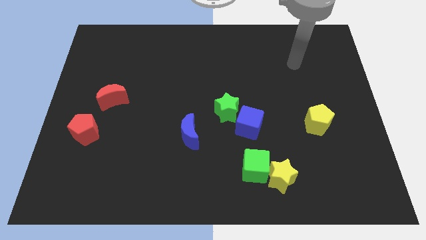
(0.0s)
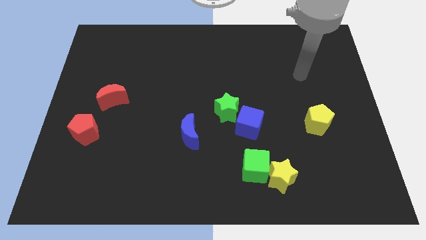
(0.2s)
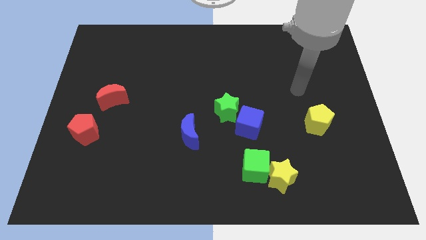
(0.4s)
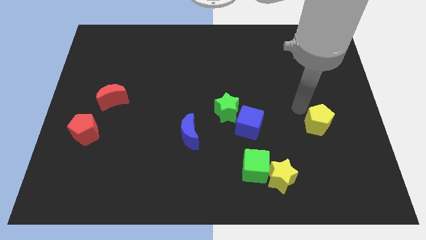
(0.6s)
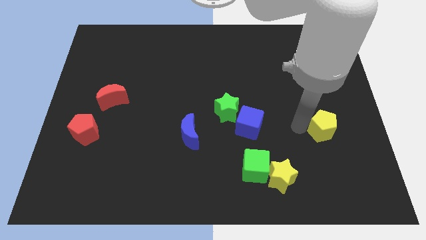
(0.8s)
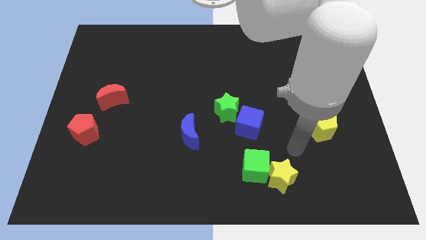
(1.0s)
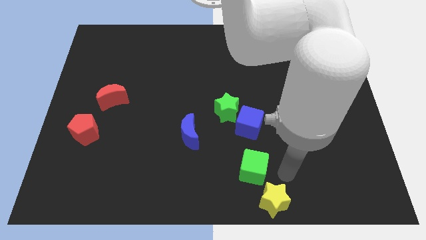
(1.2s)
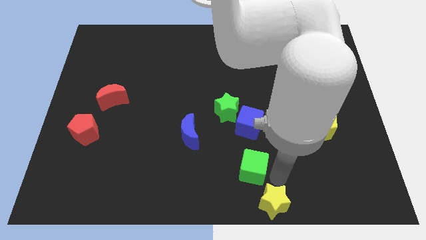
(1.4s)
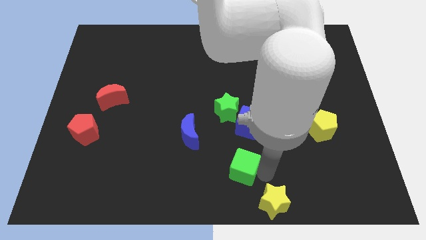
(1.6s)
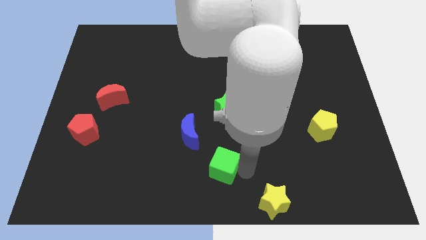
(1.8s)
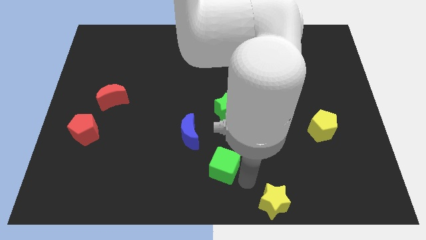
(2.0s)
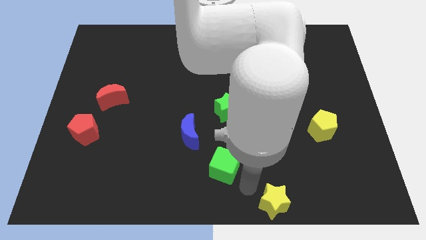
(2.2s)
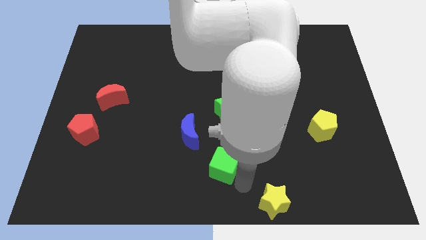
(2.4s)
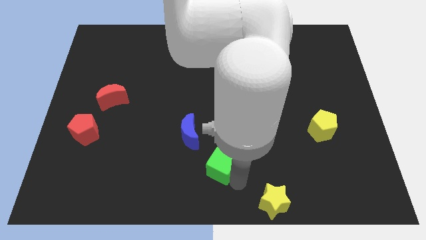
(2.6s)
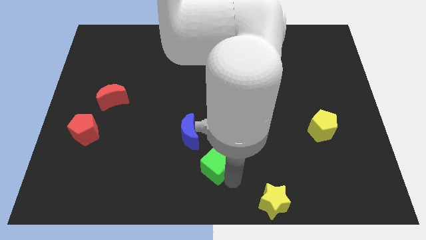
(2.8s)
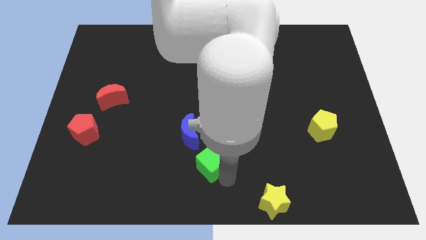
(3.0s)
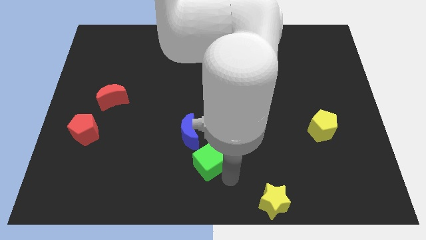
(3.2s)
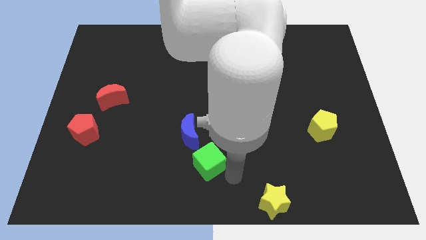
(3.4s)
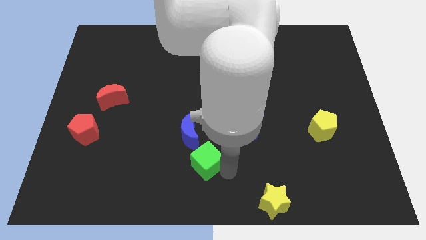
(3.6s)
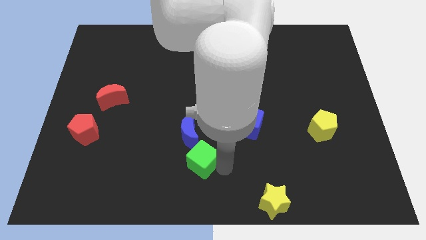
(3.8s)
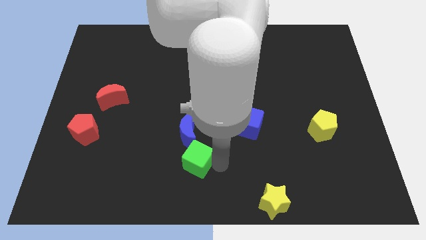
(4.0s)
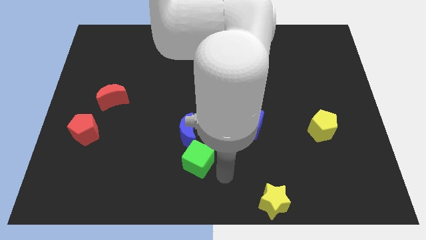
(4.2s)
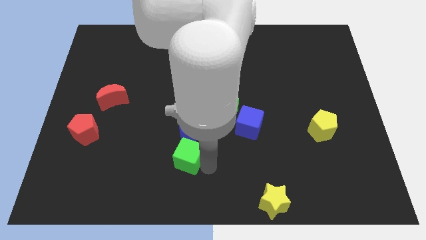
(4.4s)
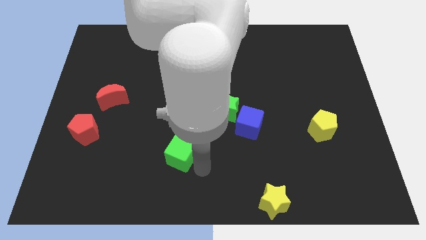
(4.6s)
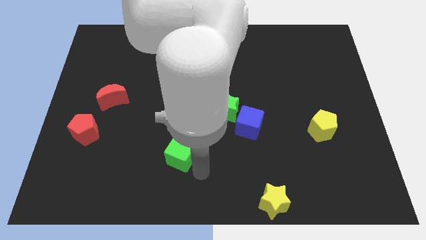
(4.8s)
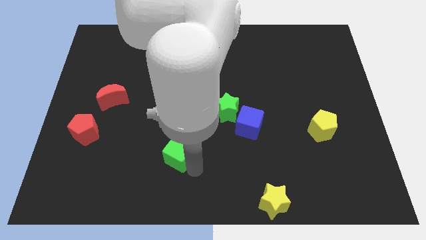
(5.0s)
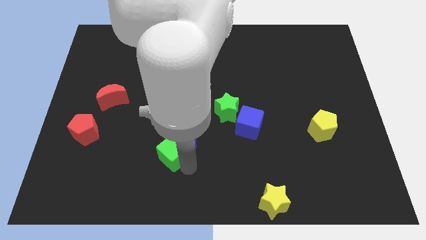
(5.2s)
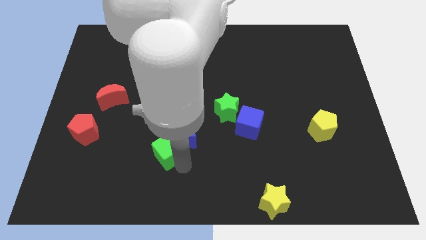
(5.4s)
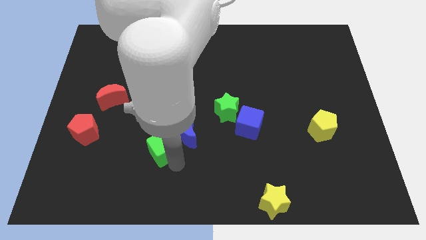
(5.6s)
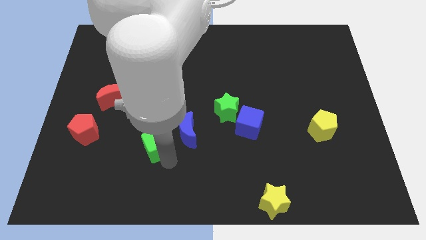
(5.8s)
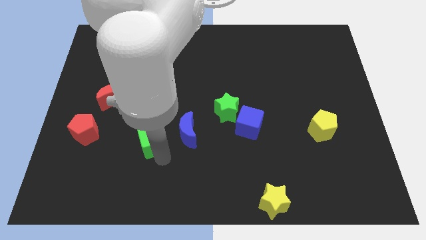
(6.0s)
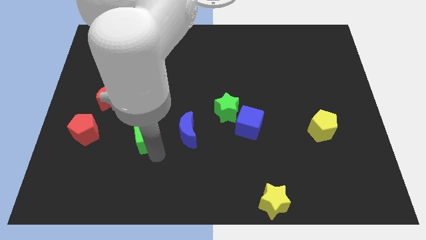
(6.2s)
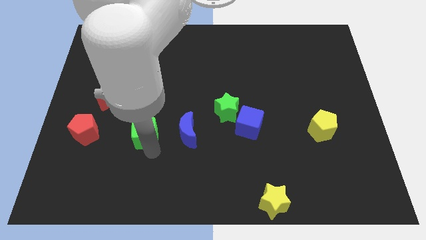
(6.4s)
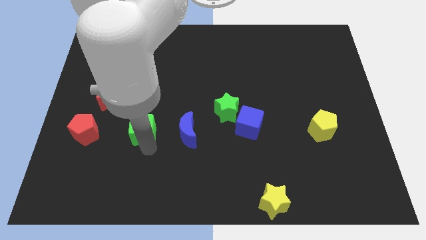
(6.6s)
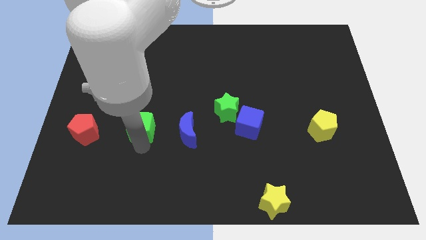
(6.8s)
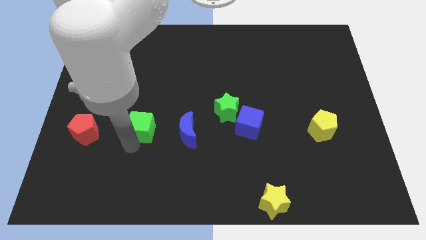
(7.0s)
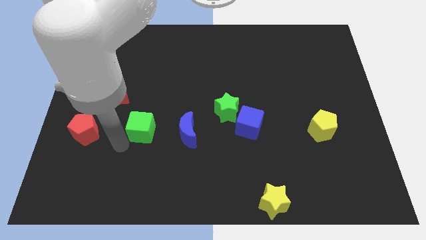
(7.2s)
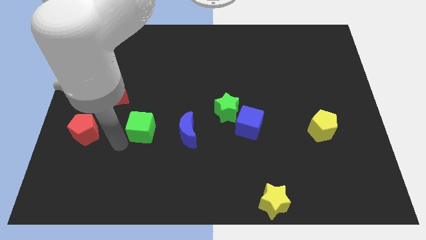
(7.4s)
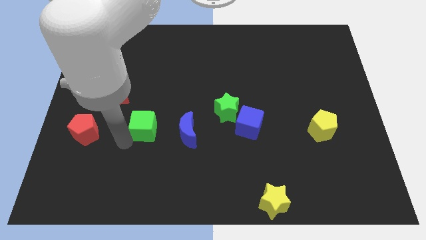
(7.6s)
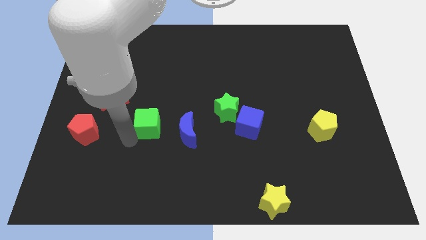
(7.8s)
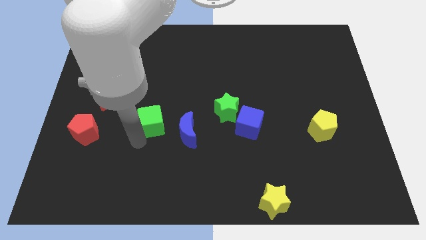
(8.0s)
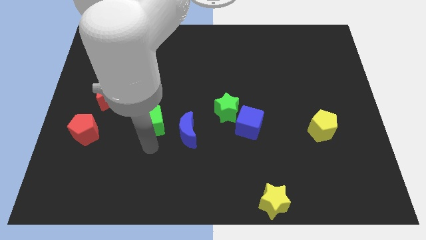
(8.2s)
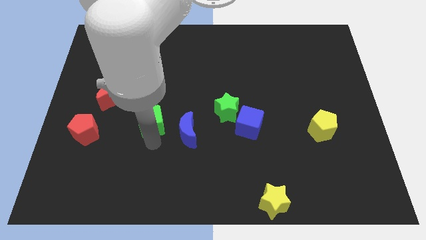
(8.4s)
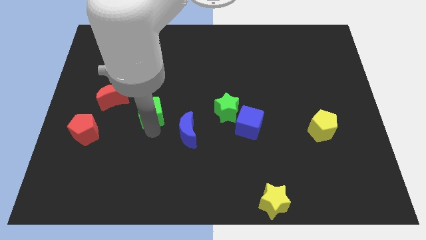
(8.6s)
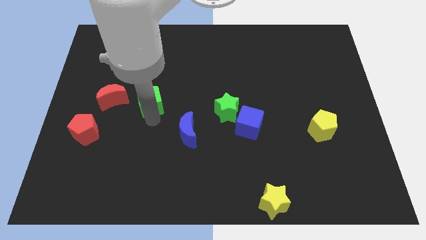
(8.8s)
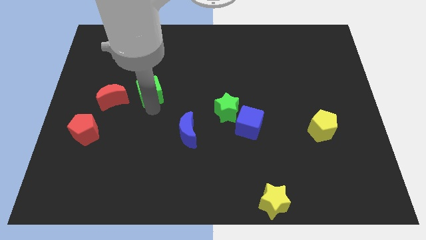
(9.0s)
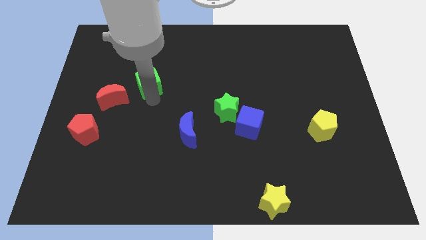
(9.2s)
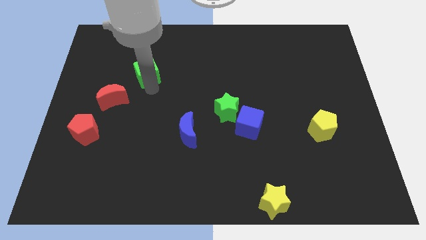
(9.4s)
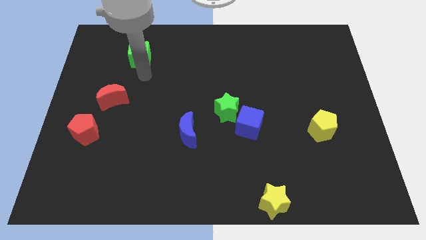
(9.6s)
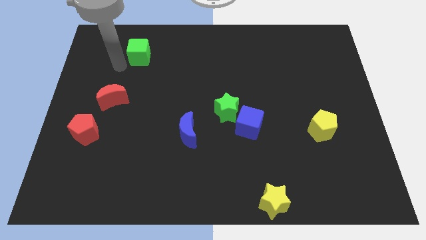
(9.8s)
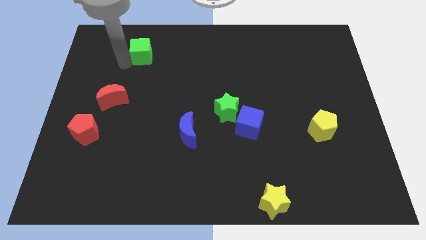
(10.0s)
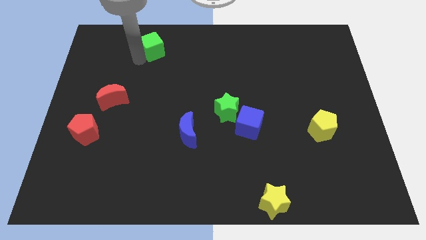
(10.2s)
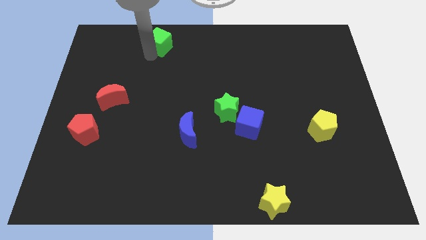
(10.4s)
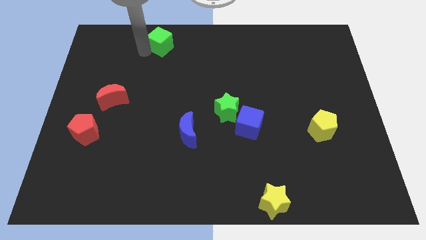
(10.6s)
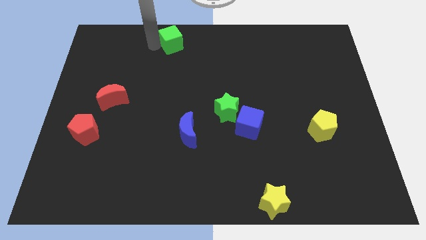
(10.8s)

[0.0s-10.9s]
move the green cube to the towards your base

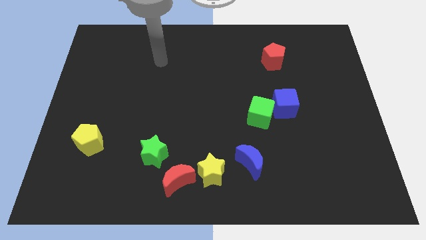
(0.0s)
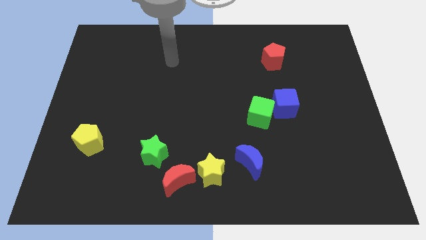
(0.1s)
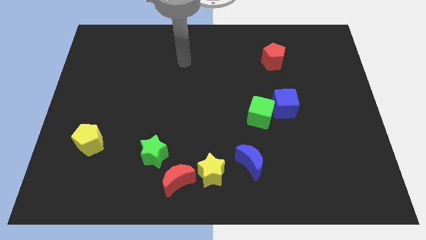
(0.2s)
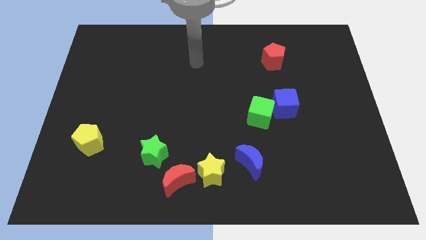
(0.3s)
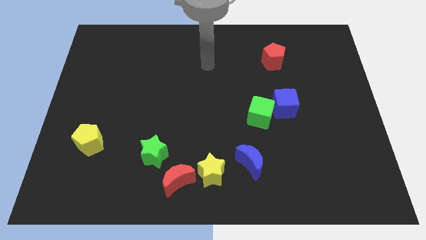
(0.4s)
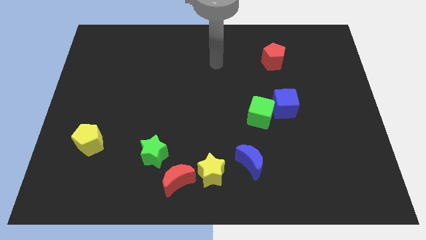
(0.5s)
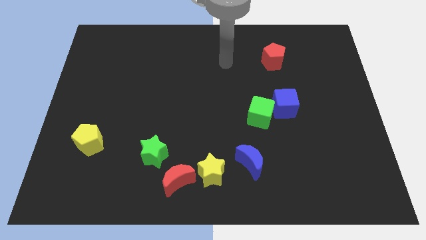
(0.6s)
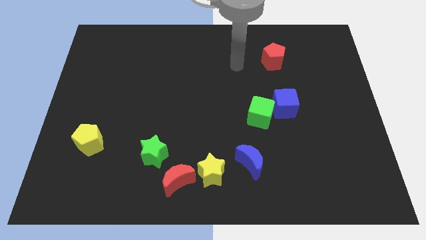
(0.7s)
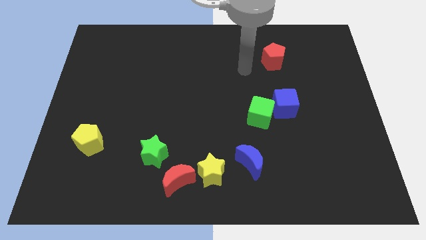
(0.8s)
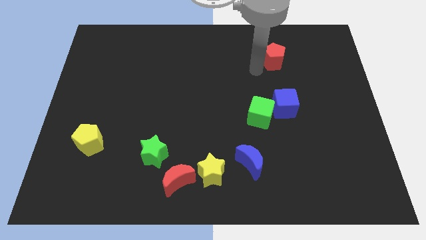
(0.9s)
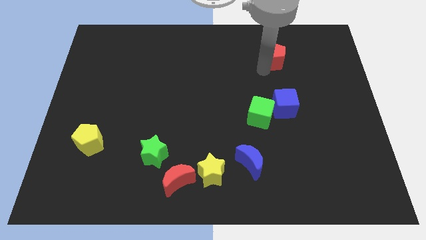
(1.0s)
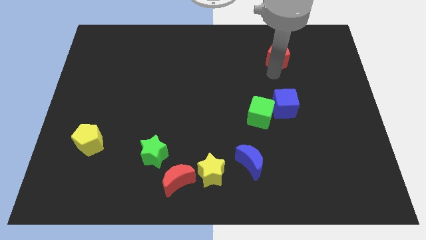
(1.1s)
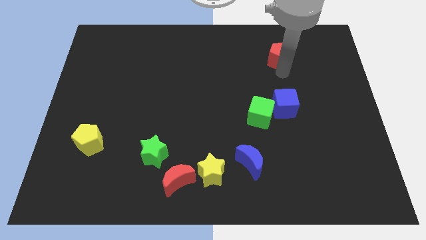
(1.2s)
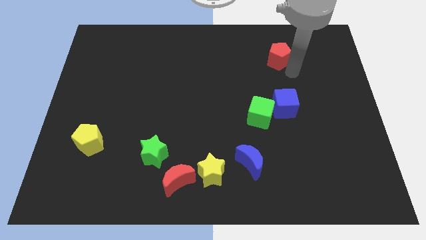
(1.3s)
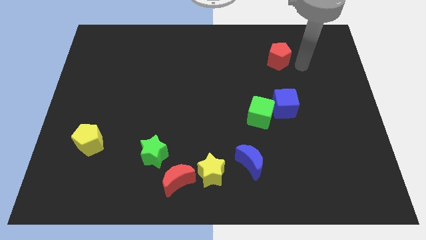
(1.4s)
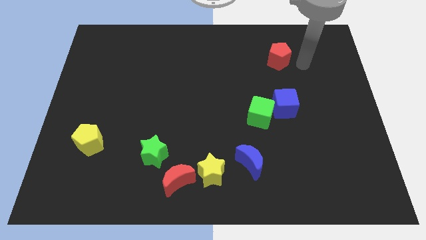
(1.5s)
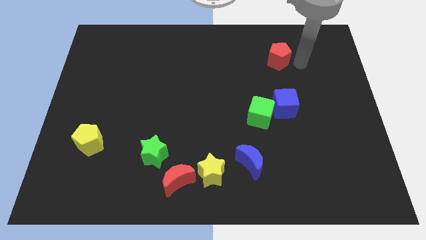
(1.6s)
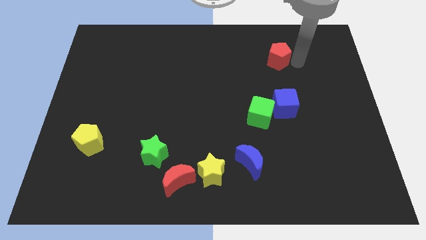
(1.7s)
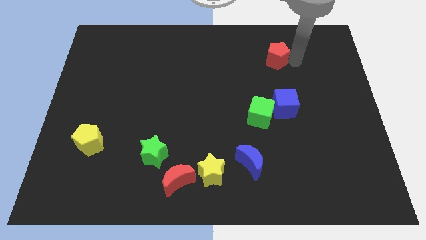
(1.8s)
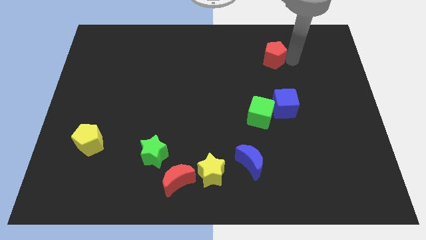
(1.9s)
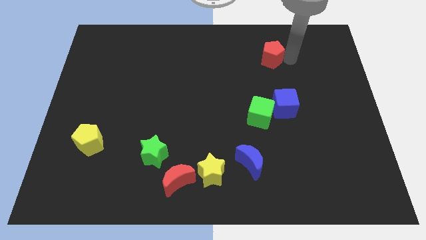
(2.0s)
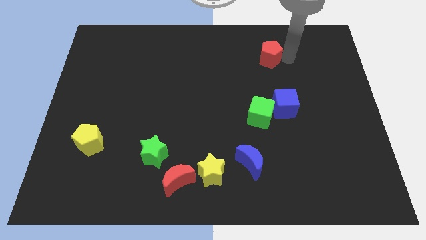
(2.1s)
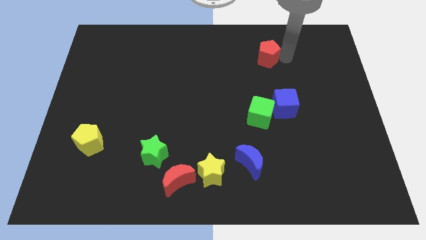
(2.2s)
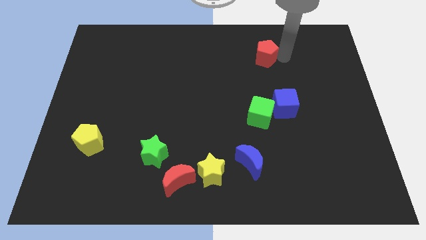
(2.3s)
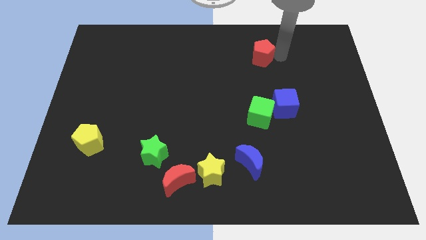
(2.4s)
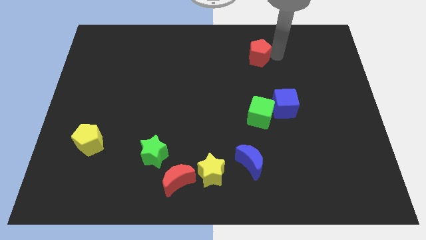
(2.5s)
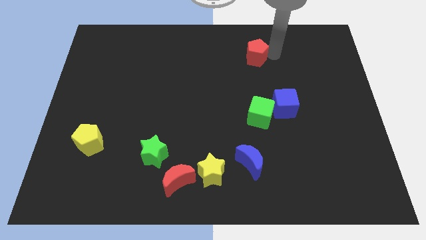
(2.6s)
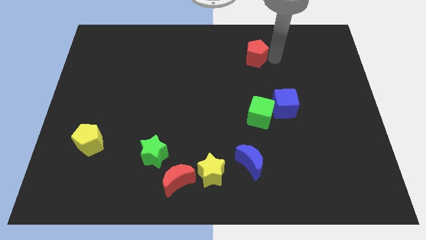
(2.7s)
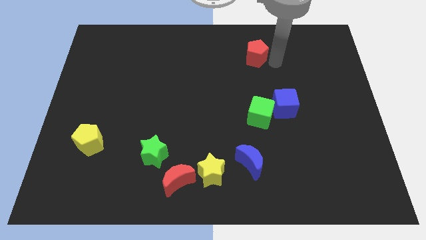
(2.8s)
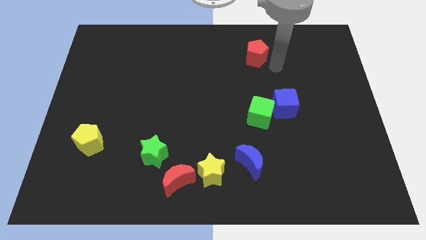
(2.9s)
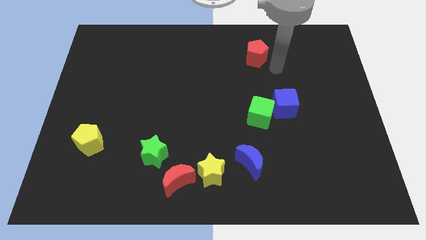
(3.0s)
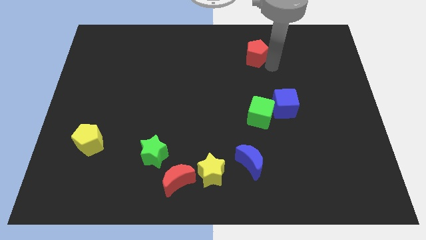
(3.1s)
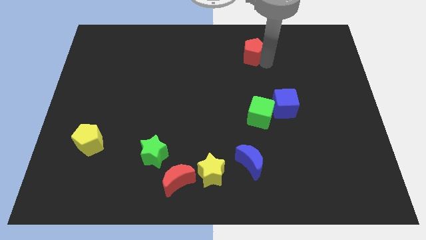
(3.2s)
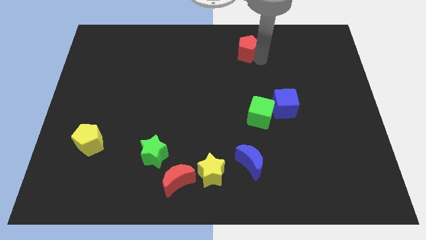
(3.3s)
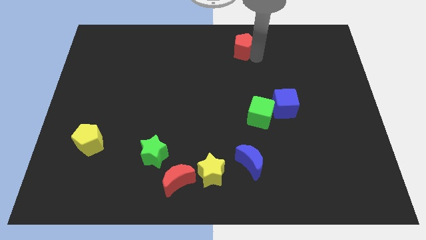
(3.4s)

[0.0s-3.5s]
move the red pentagon to the top
